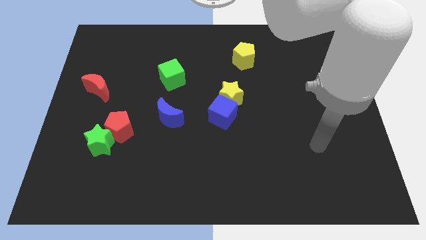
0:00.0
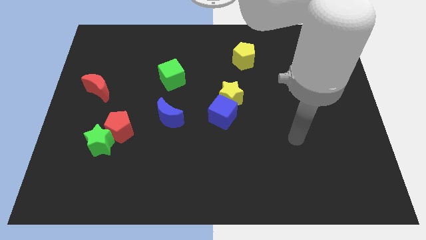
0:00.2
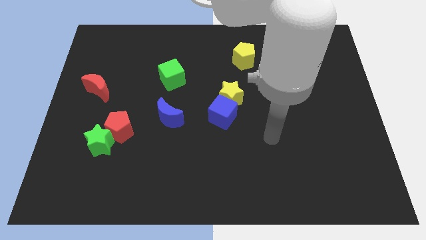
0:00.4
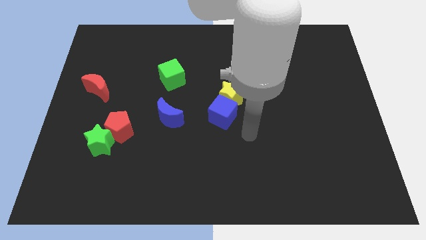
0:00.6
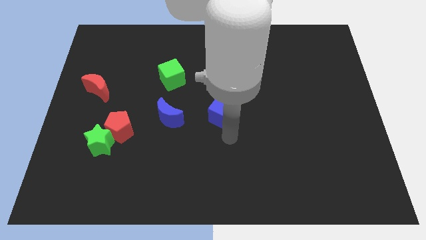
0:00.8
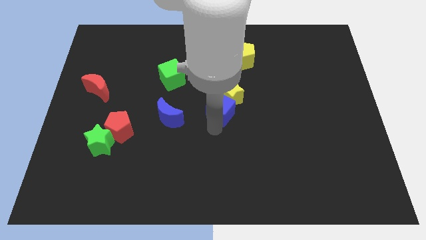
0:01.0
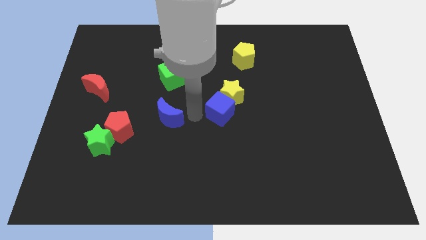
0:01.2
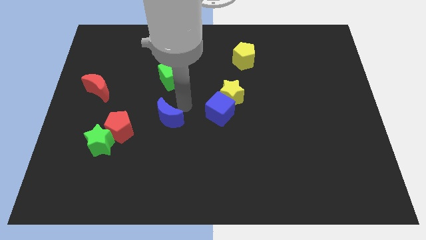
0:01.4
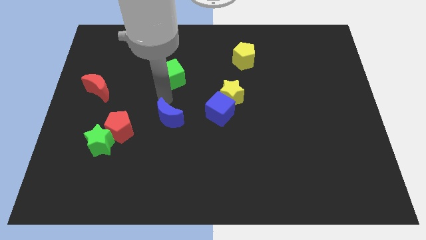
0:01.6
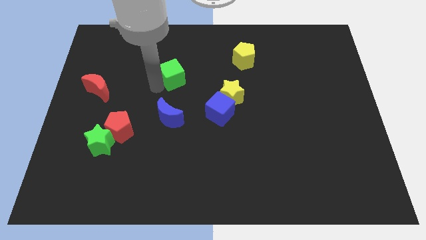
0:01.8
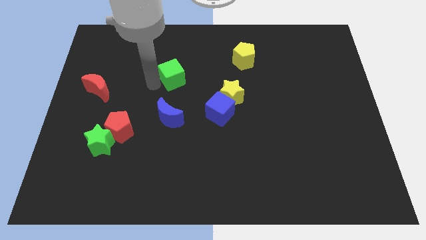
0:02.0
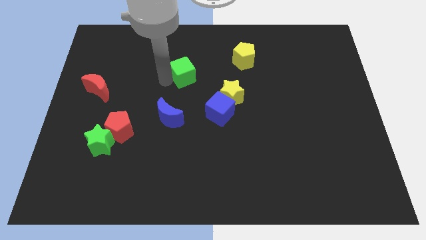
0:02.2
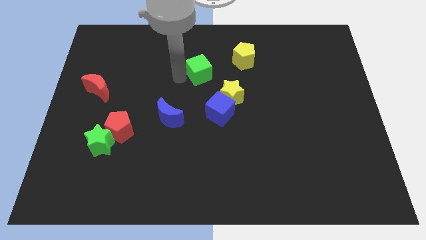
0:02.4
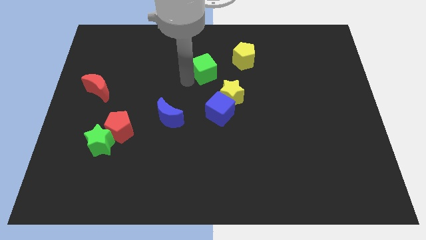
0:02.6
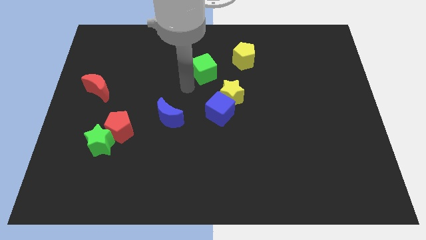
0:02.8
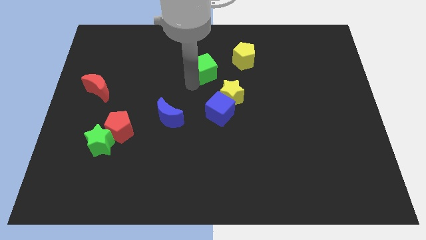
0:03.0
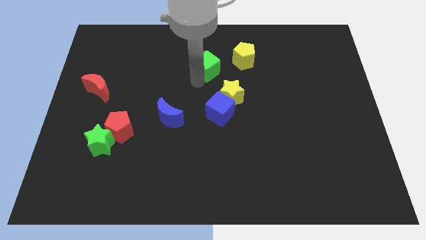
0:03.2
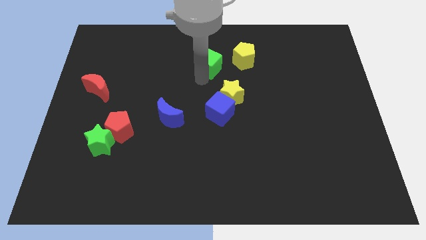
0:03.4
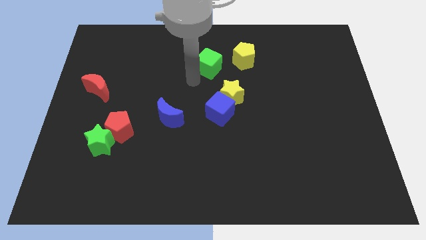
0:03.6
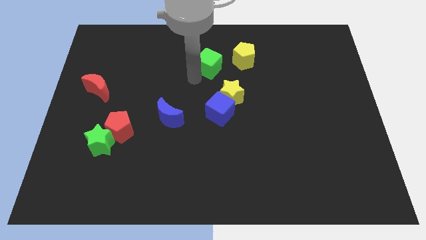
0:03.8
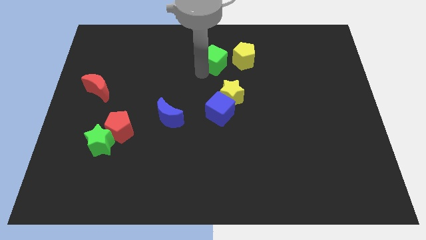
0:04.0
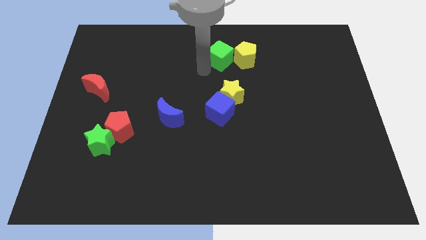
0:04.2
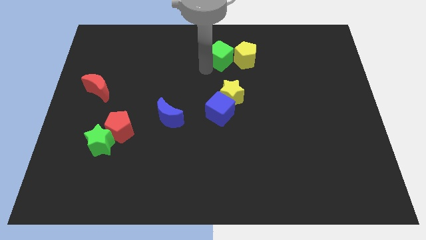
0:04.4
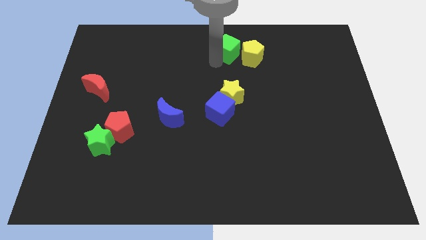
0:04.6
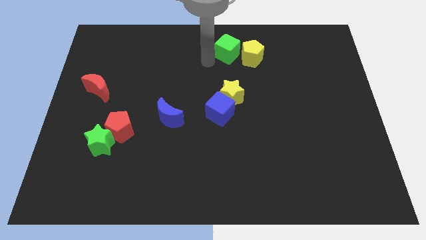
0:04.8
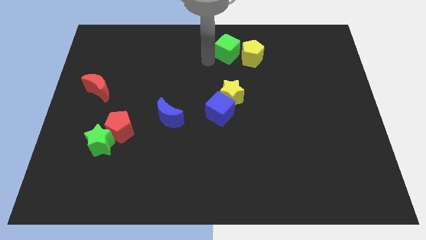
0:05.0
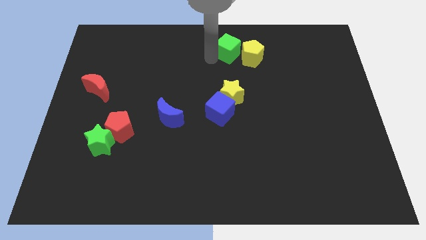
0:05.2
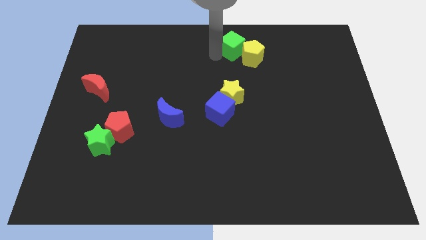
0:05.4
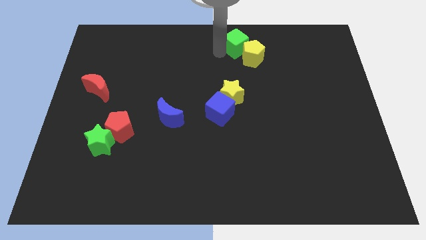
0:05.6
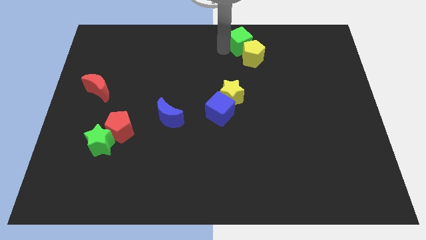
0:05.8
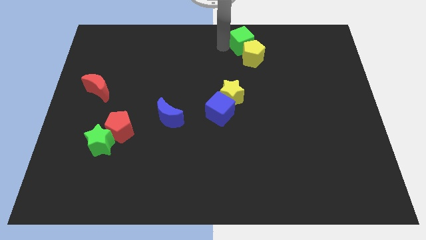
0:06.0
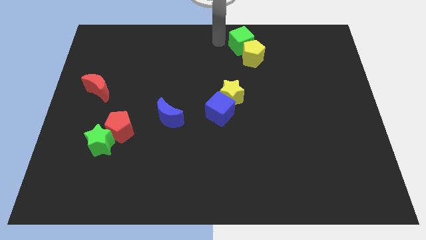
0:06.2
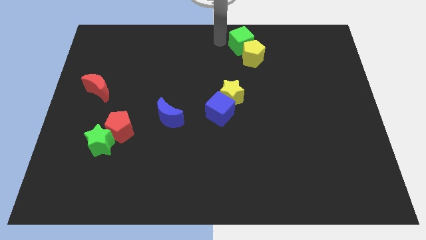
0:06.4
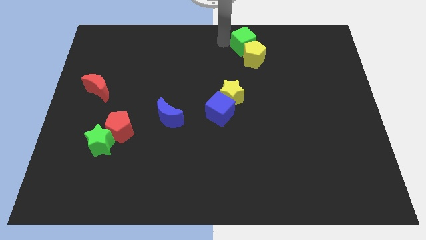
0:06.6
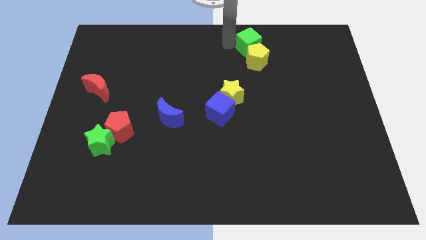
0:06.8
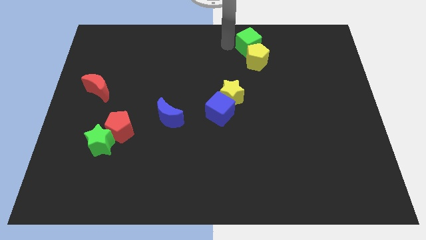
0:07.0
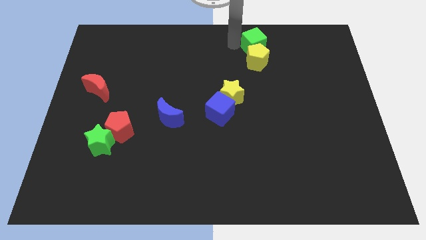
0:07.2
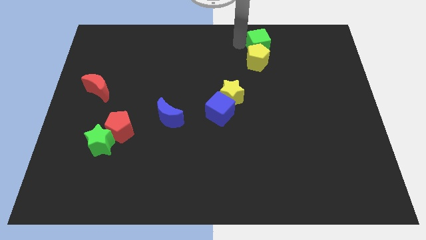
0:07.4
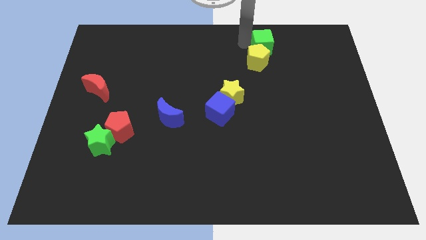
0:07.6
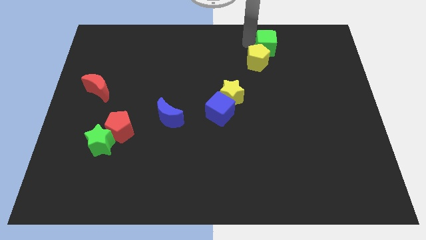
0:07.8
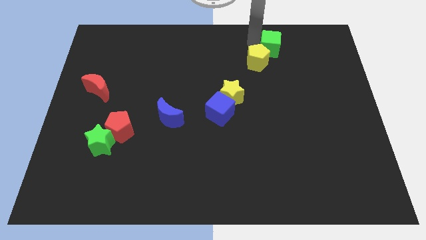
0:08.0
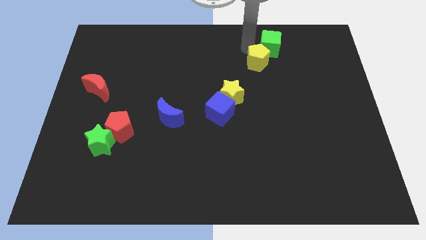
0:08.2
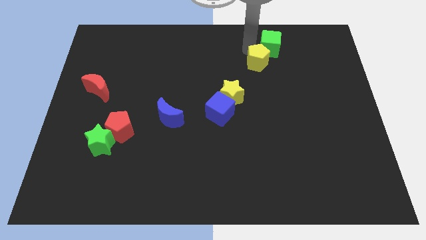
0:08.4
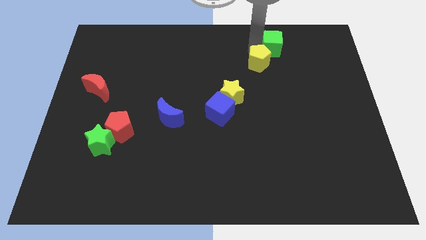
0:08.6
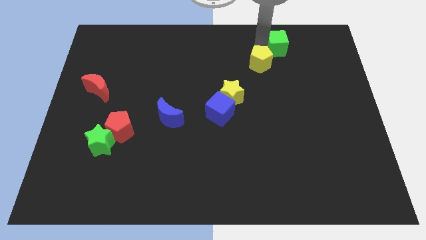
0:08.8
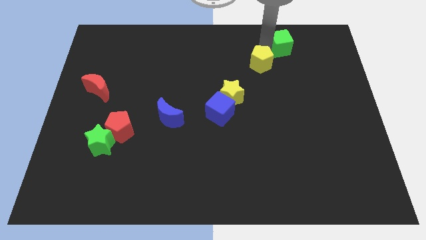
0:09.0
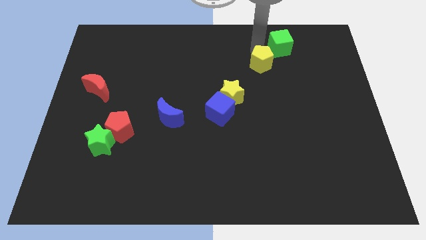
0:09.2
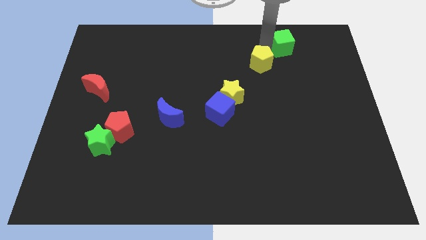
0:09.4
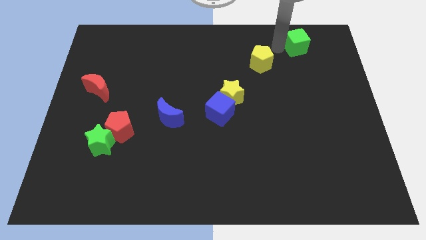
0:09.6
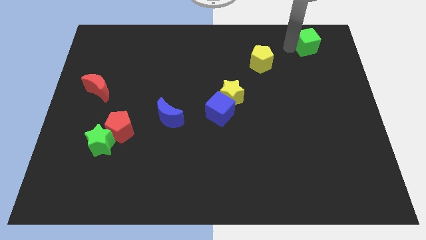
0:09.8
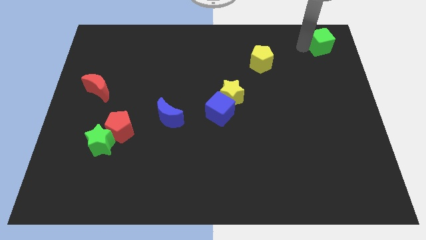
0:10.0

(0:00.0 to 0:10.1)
move the green cube to the top right corner
